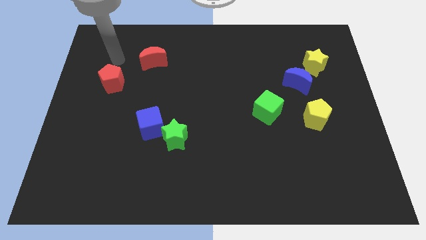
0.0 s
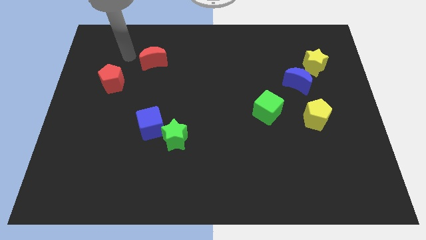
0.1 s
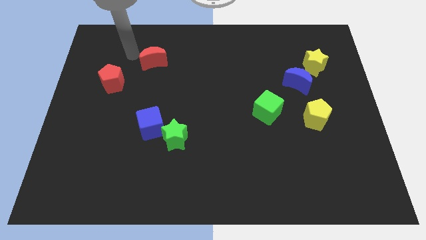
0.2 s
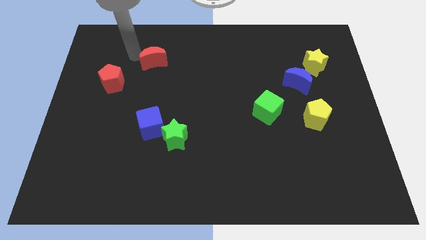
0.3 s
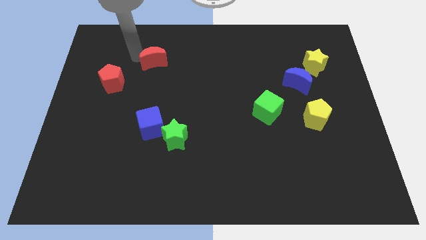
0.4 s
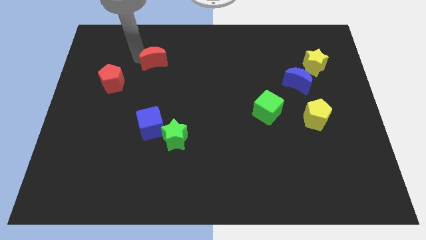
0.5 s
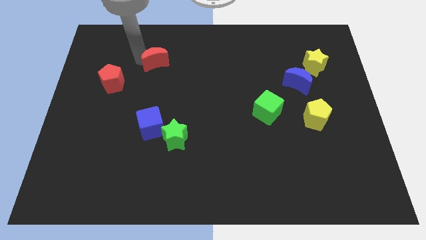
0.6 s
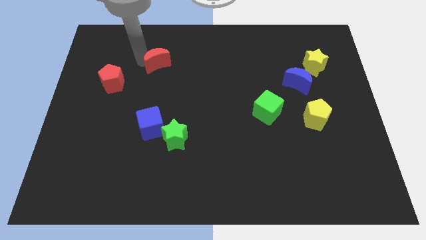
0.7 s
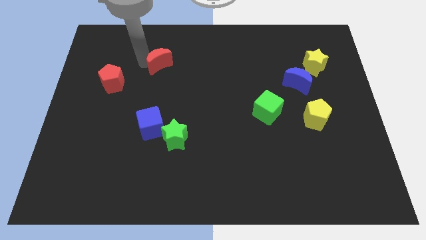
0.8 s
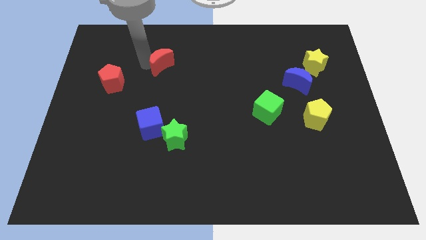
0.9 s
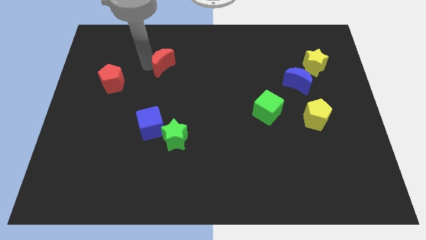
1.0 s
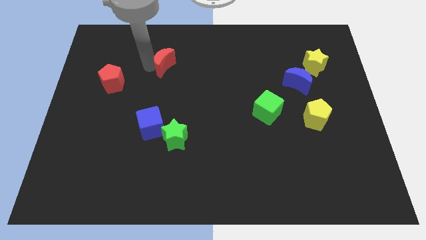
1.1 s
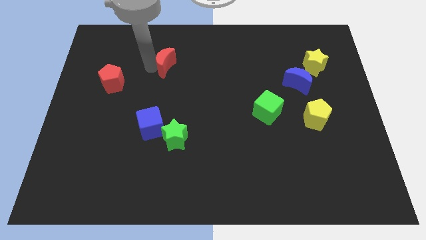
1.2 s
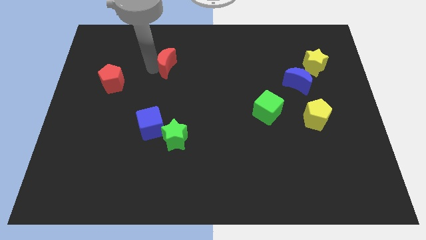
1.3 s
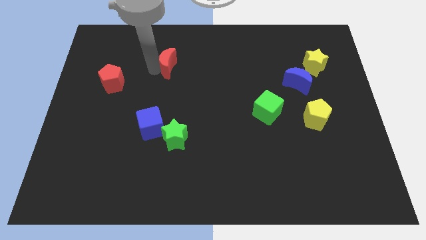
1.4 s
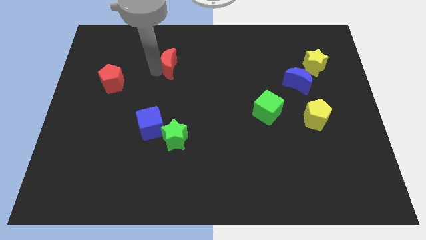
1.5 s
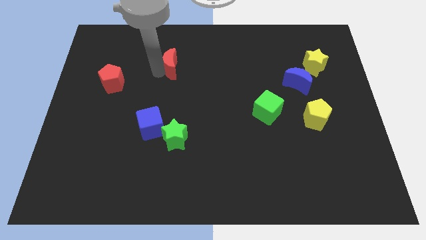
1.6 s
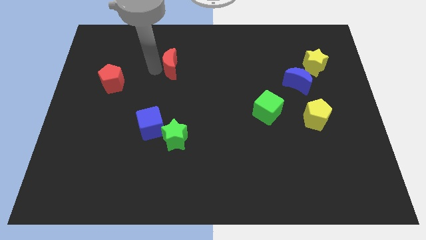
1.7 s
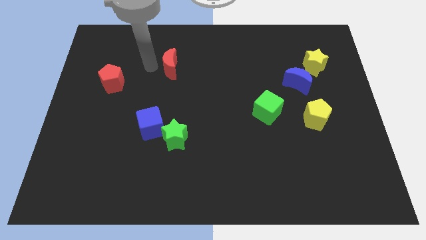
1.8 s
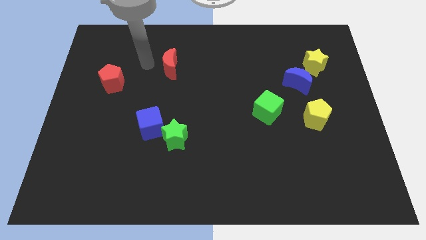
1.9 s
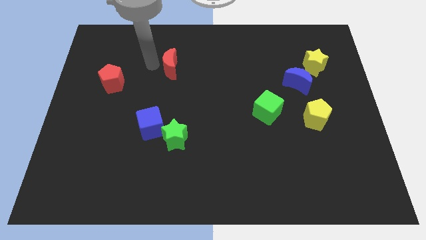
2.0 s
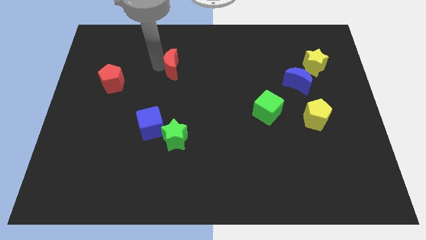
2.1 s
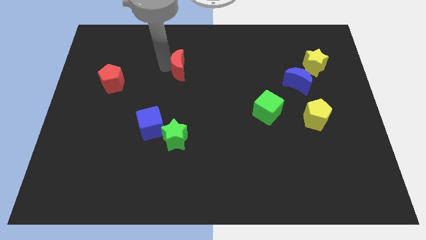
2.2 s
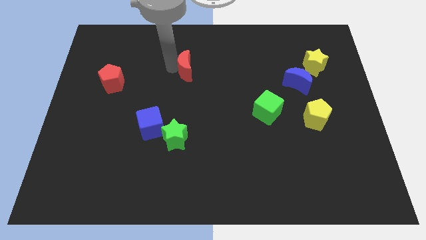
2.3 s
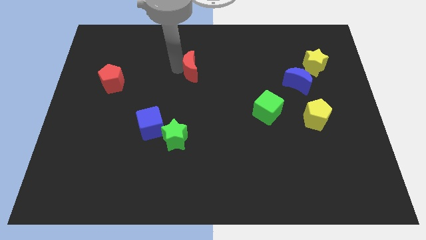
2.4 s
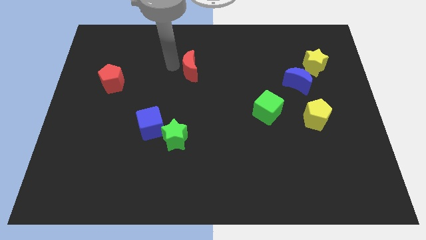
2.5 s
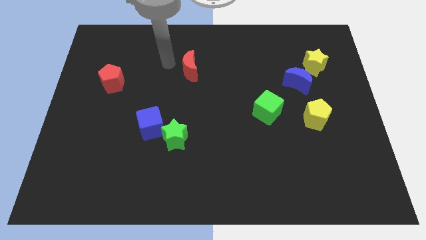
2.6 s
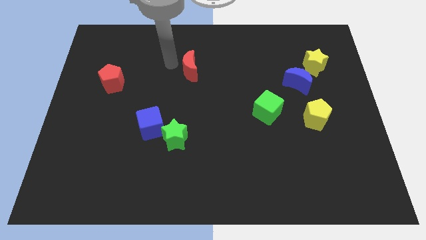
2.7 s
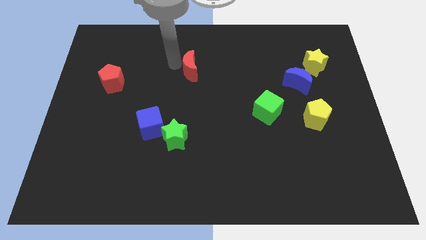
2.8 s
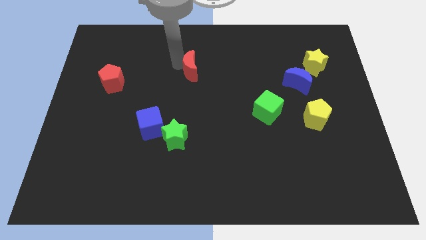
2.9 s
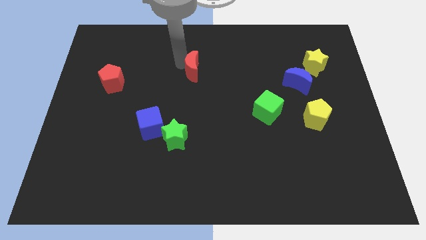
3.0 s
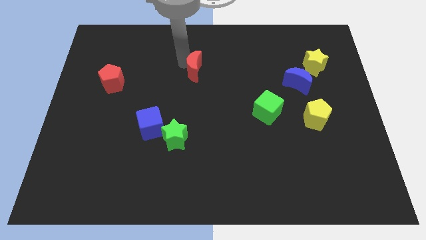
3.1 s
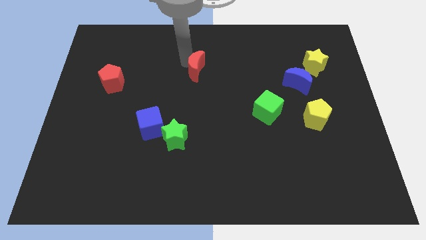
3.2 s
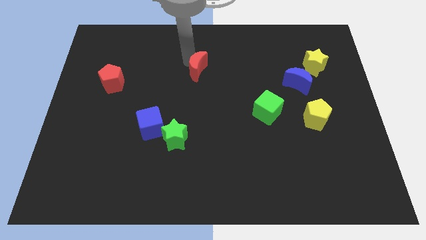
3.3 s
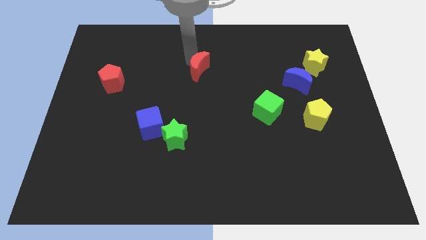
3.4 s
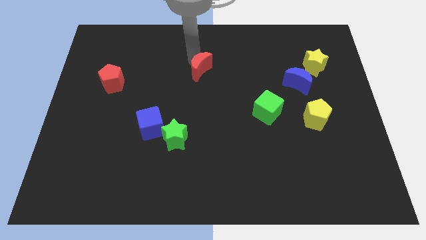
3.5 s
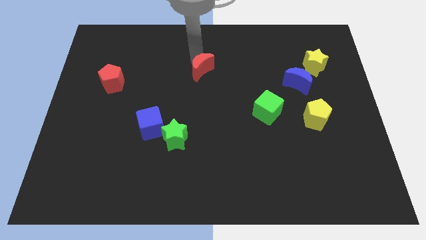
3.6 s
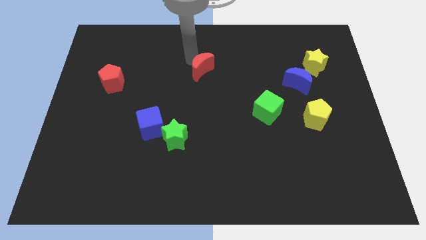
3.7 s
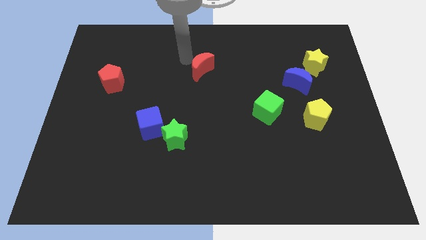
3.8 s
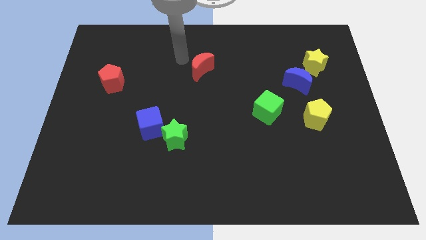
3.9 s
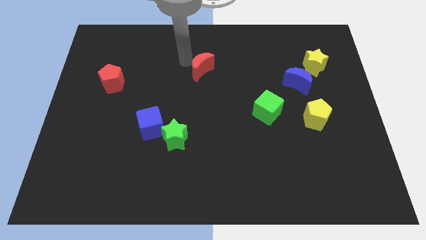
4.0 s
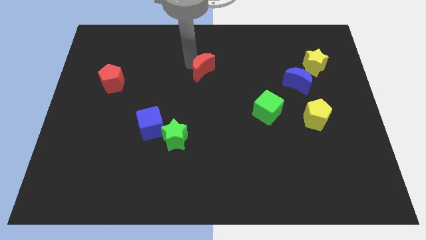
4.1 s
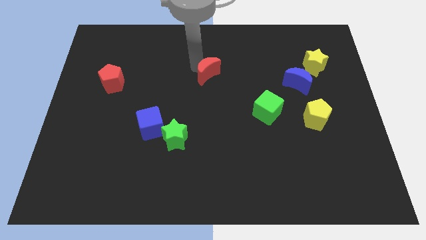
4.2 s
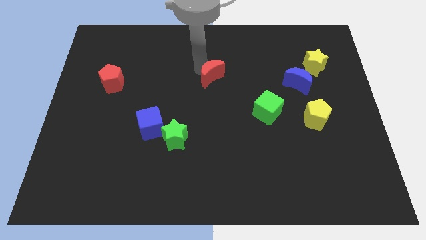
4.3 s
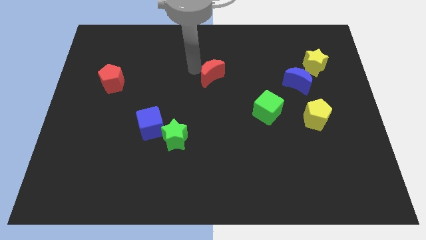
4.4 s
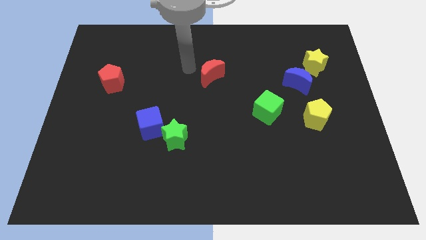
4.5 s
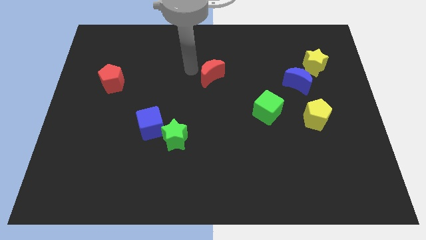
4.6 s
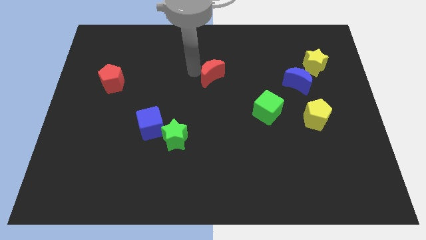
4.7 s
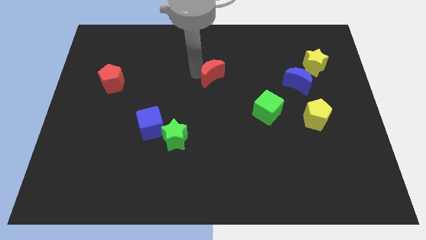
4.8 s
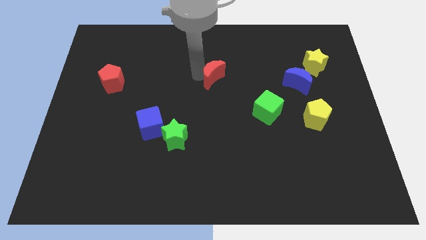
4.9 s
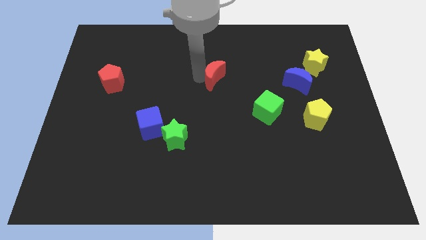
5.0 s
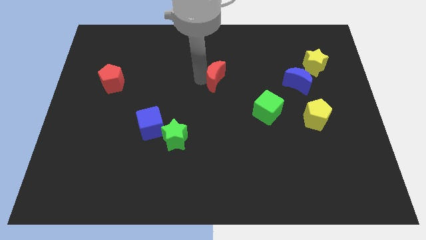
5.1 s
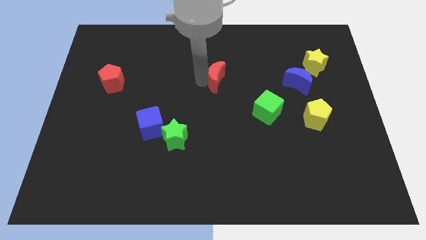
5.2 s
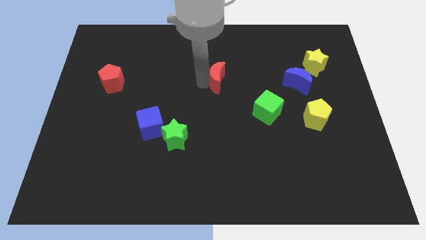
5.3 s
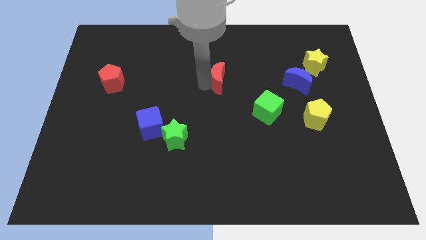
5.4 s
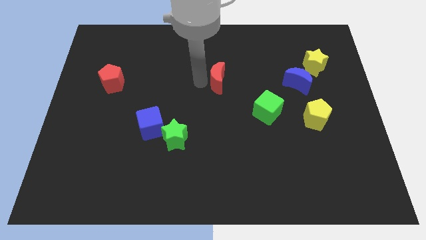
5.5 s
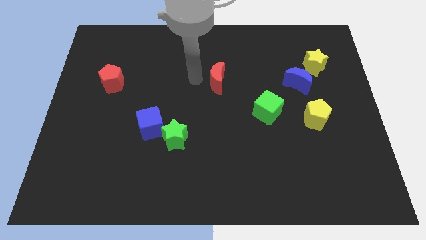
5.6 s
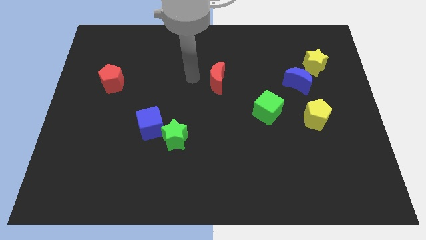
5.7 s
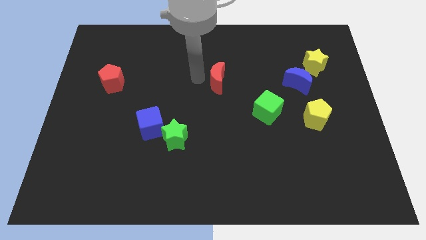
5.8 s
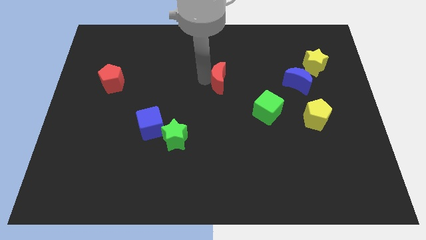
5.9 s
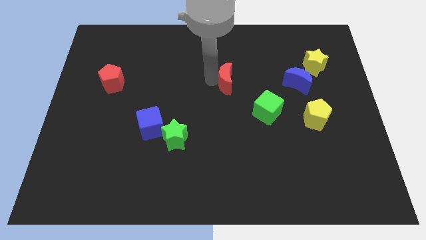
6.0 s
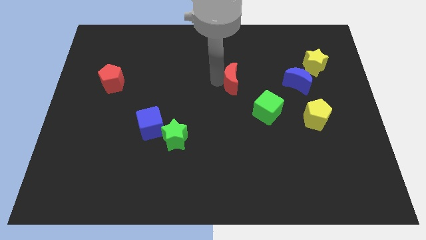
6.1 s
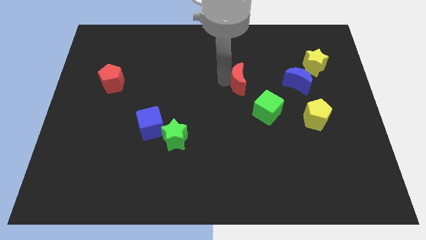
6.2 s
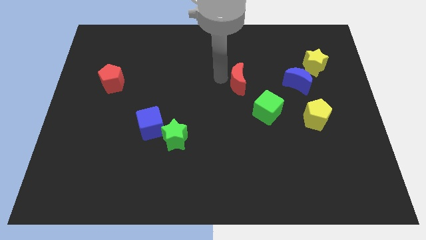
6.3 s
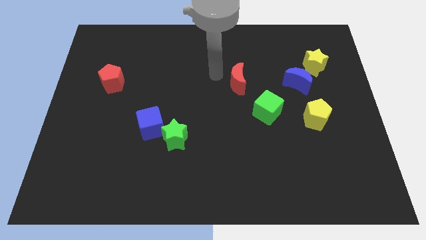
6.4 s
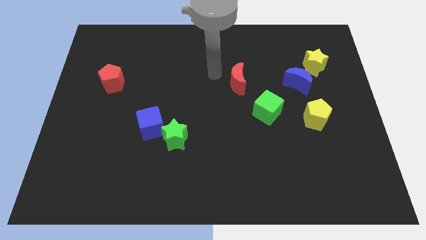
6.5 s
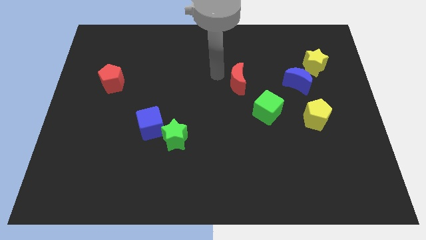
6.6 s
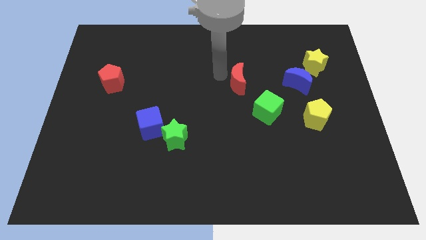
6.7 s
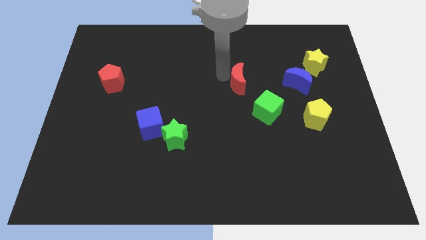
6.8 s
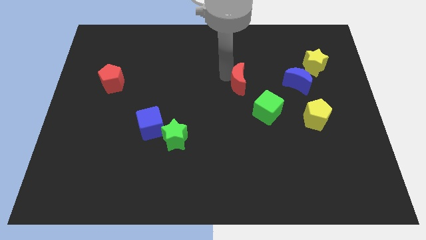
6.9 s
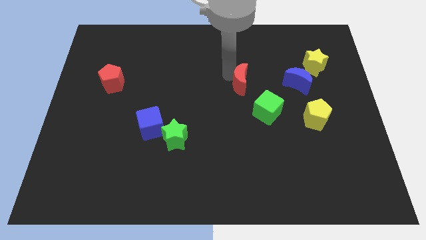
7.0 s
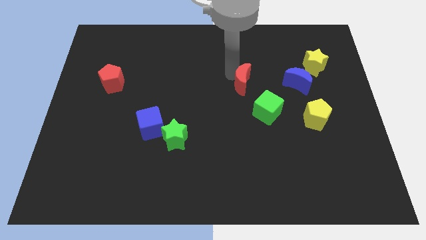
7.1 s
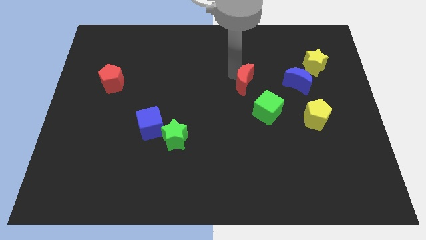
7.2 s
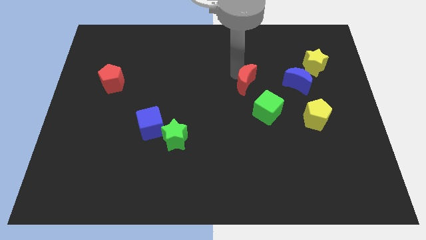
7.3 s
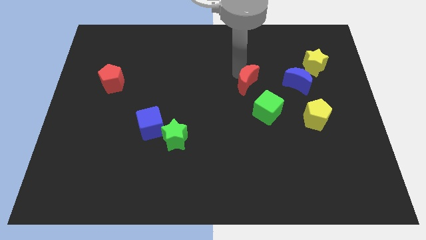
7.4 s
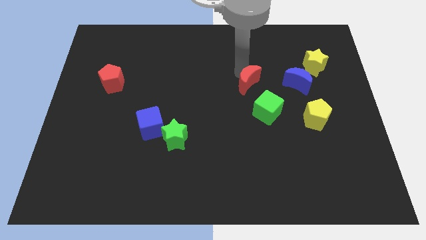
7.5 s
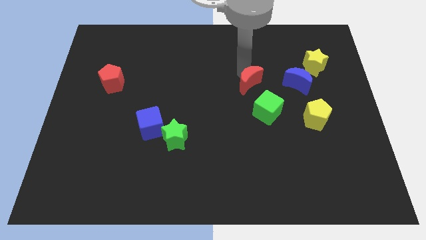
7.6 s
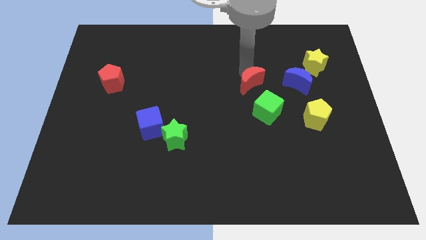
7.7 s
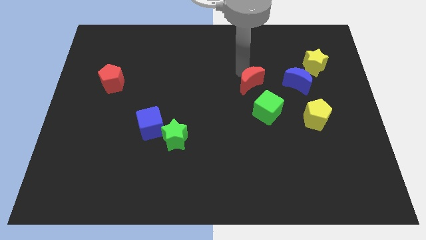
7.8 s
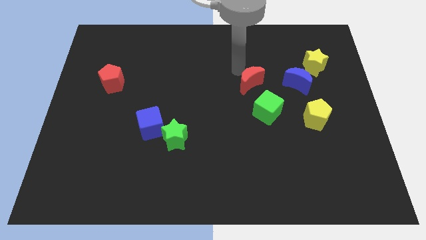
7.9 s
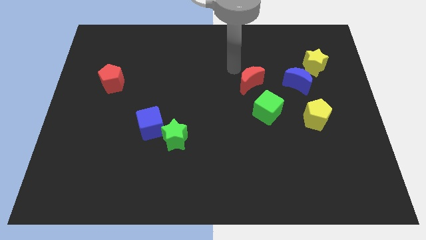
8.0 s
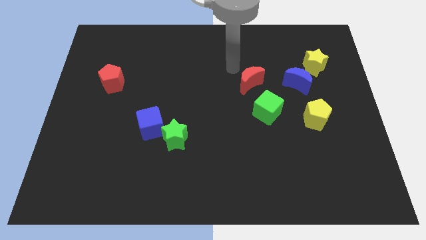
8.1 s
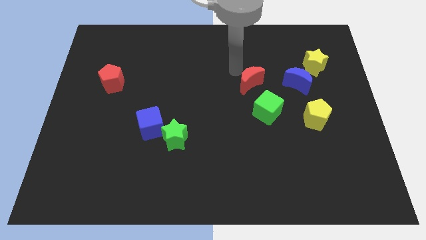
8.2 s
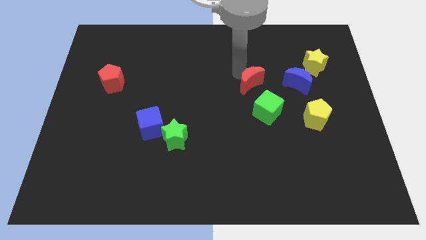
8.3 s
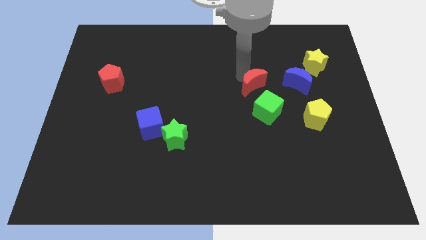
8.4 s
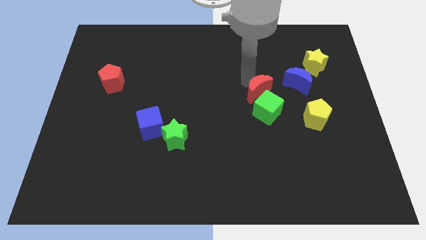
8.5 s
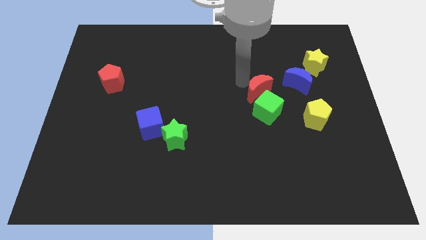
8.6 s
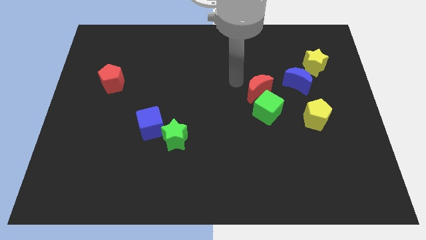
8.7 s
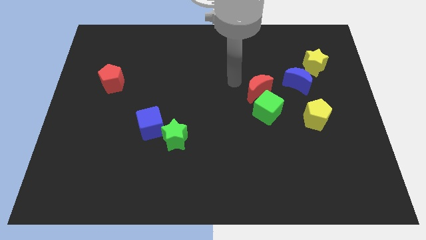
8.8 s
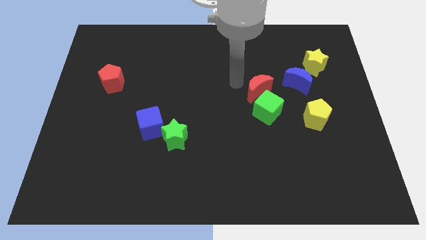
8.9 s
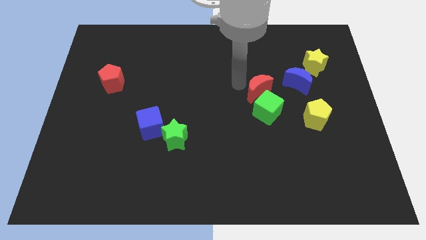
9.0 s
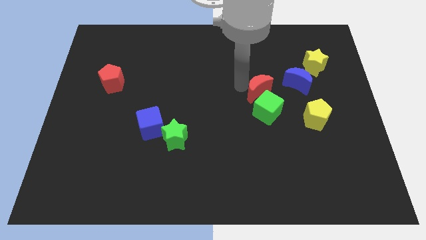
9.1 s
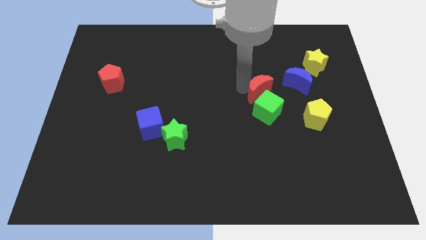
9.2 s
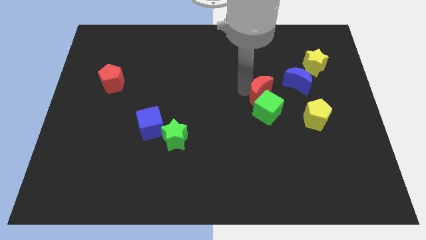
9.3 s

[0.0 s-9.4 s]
slide the red moon to the bottom left of the blue moon
